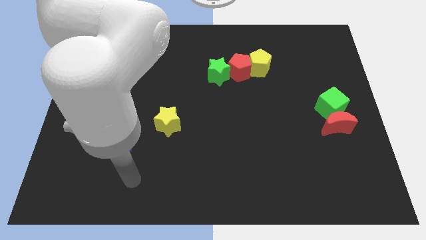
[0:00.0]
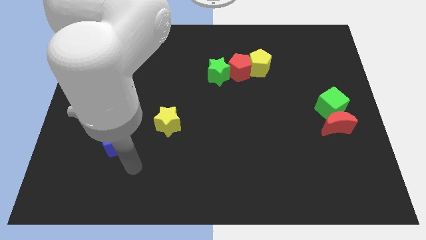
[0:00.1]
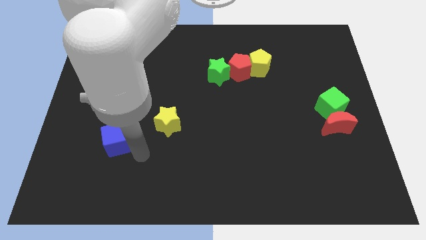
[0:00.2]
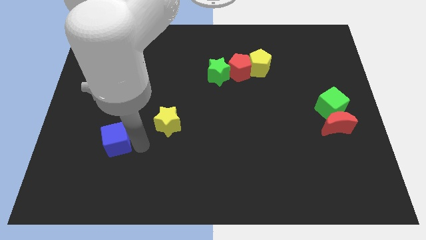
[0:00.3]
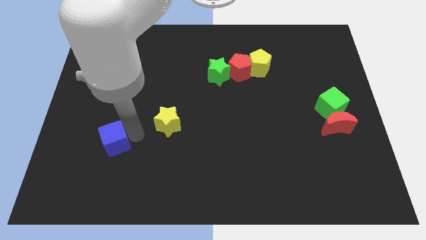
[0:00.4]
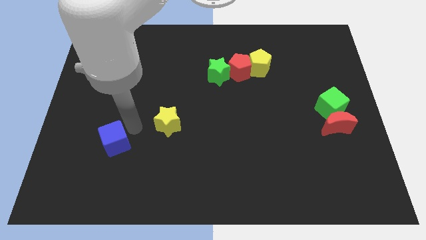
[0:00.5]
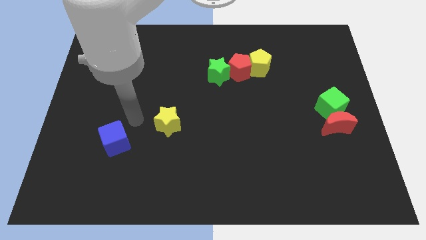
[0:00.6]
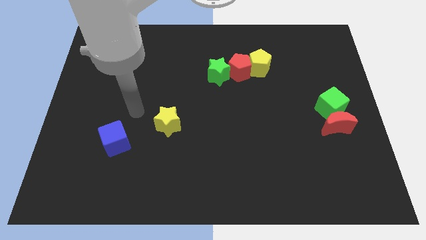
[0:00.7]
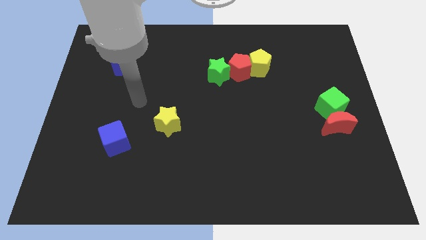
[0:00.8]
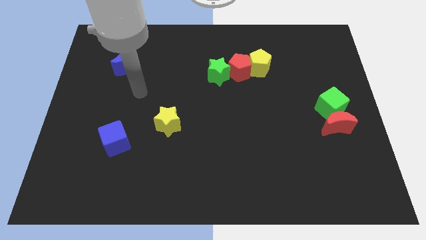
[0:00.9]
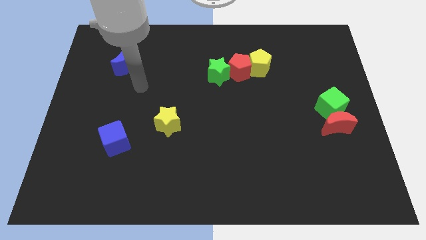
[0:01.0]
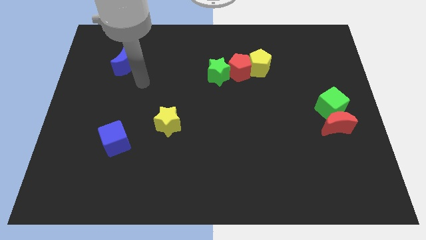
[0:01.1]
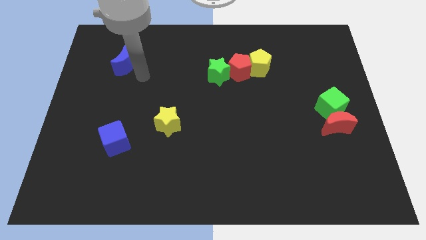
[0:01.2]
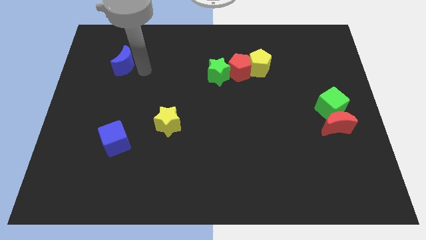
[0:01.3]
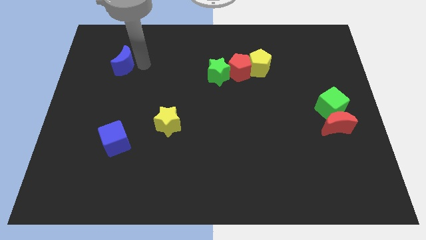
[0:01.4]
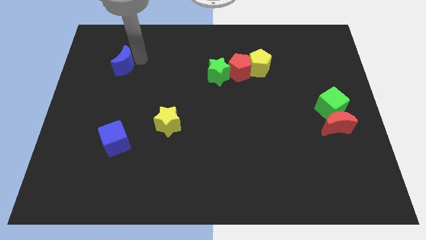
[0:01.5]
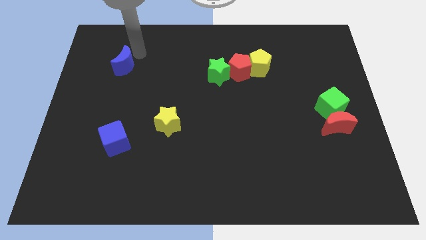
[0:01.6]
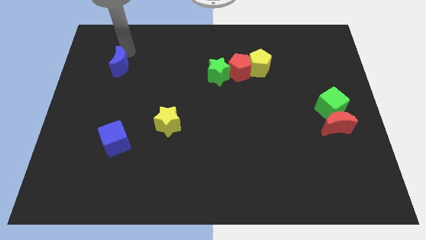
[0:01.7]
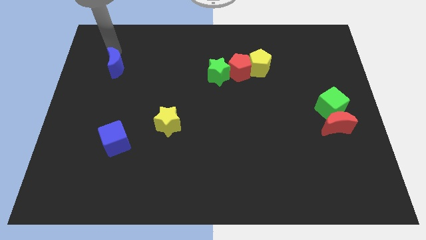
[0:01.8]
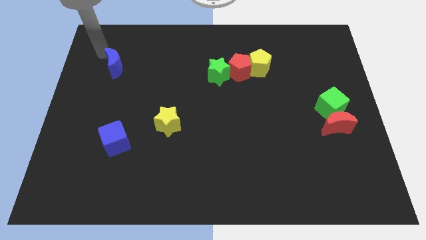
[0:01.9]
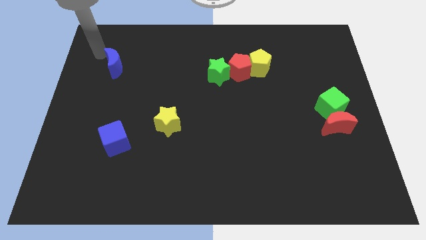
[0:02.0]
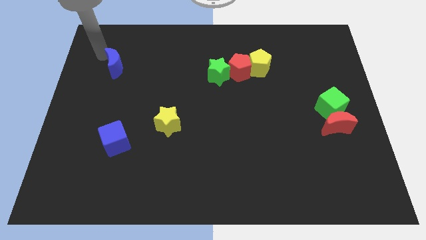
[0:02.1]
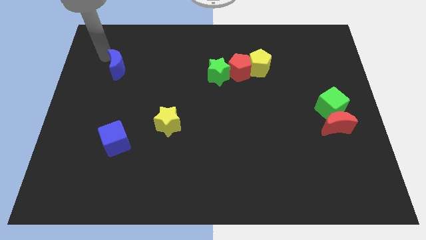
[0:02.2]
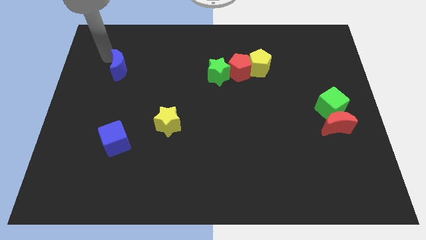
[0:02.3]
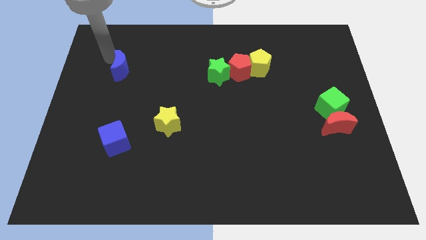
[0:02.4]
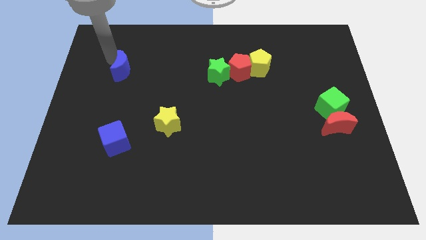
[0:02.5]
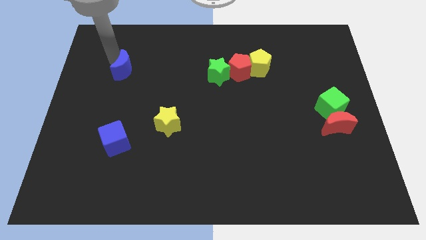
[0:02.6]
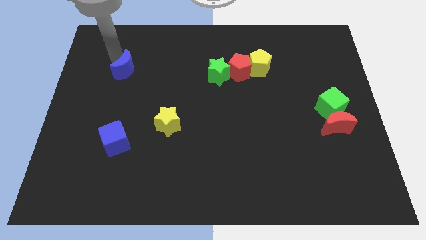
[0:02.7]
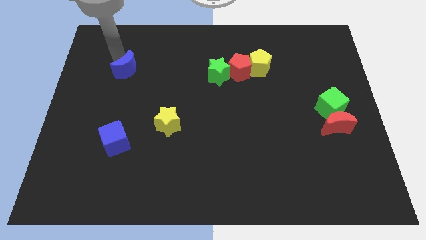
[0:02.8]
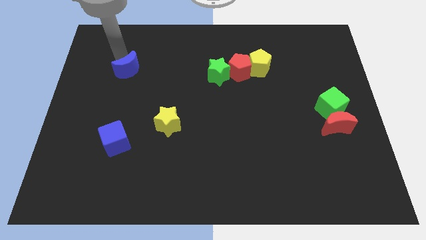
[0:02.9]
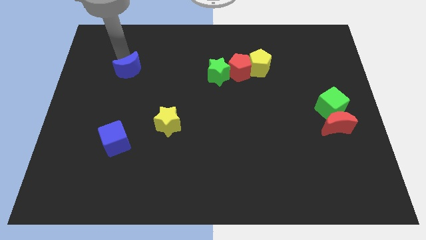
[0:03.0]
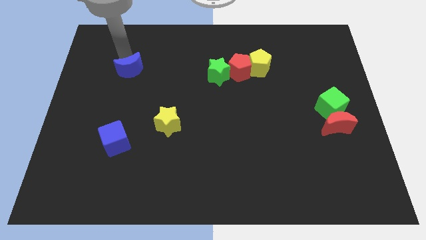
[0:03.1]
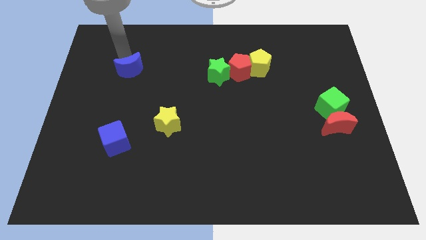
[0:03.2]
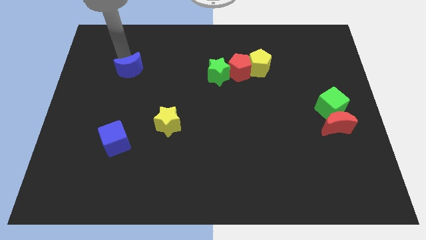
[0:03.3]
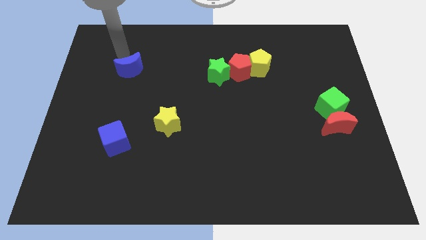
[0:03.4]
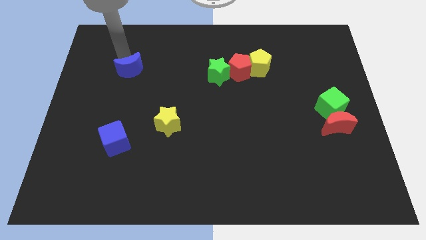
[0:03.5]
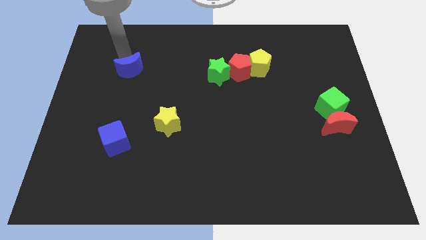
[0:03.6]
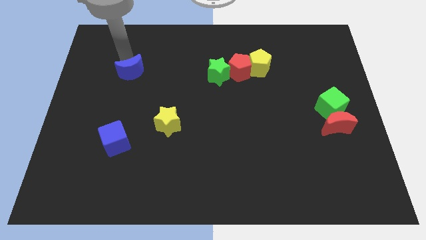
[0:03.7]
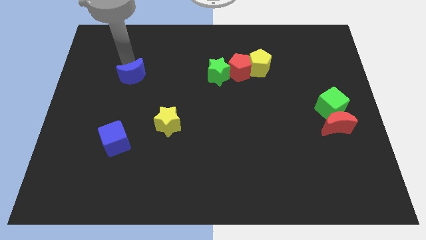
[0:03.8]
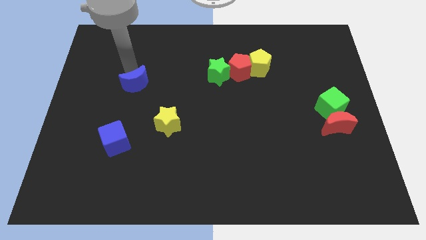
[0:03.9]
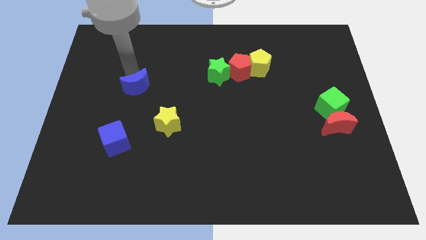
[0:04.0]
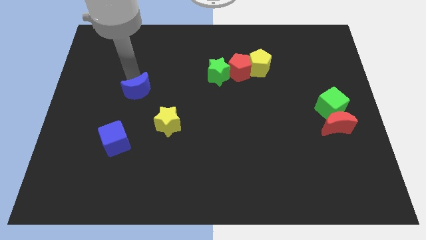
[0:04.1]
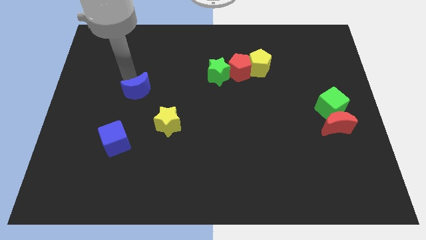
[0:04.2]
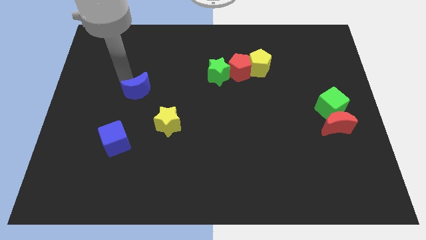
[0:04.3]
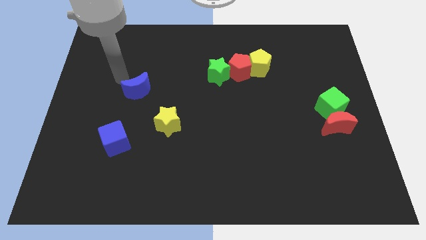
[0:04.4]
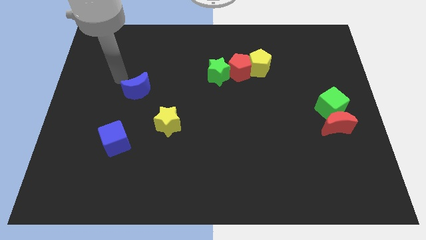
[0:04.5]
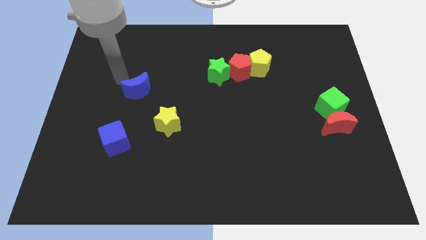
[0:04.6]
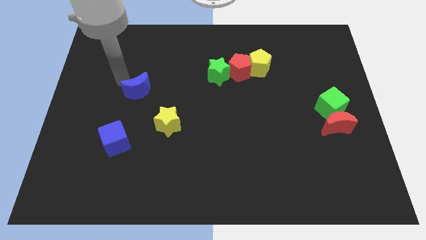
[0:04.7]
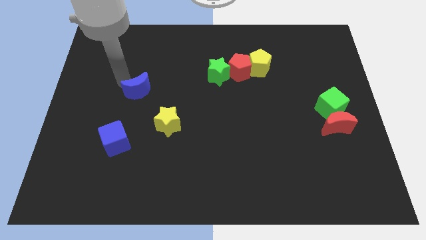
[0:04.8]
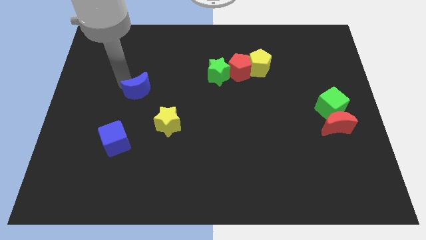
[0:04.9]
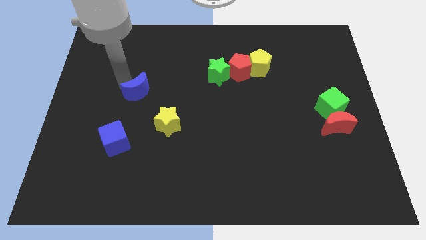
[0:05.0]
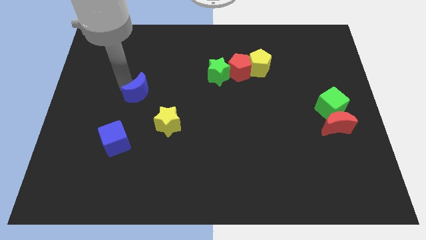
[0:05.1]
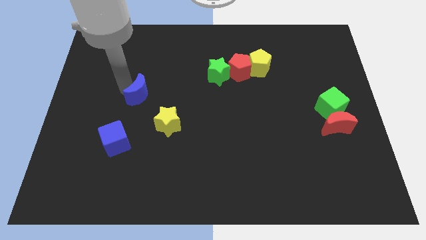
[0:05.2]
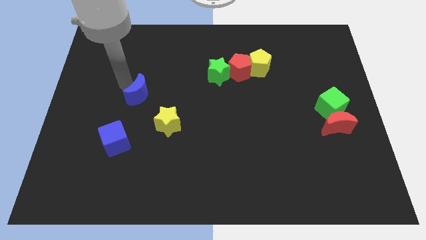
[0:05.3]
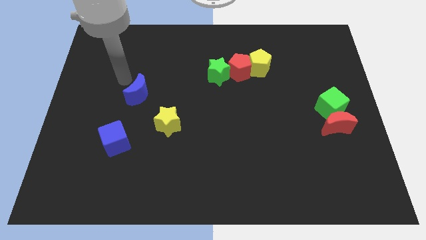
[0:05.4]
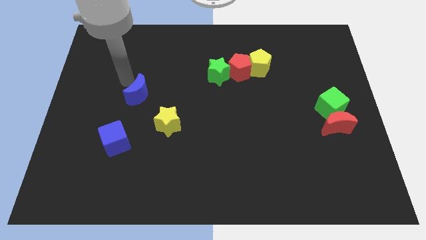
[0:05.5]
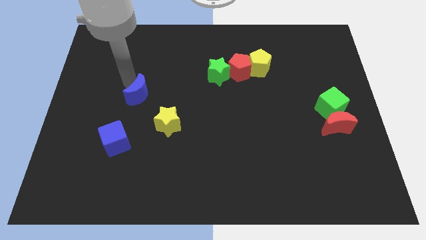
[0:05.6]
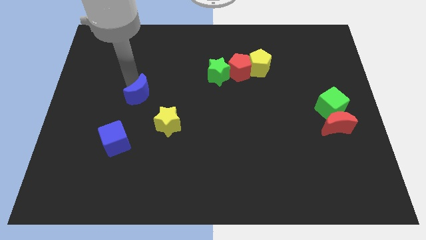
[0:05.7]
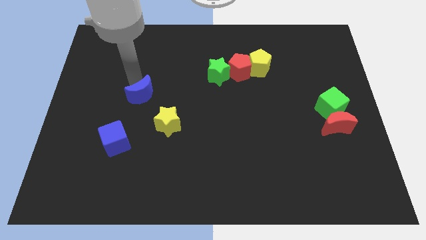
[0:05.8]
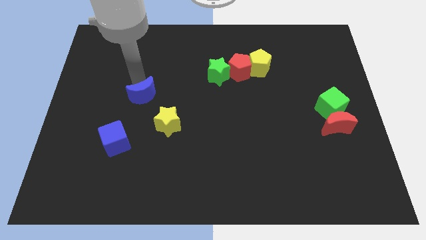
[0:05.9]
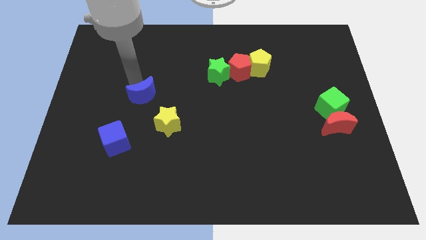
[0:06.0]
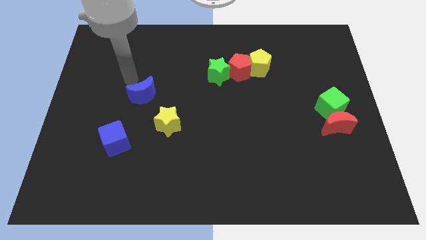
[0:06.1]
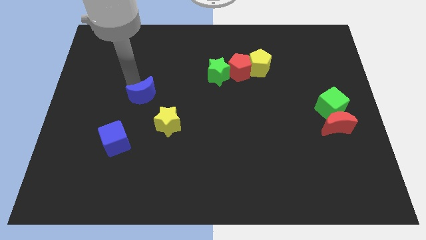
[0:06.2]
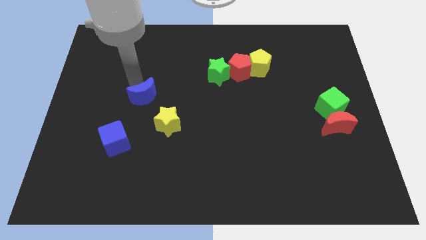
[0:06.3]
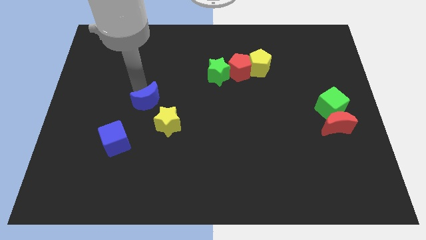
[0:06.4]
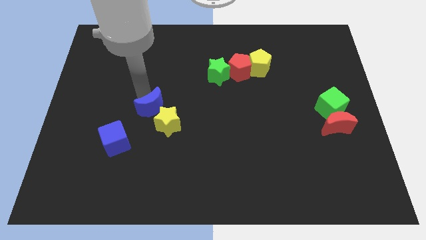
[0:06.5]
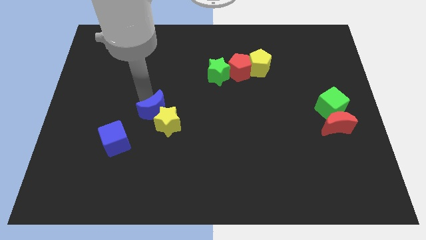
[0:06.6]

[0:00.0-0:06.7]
push the blue moon next to the yellow star
